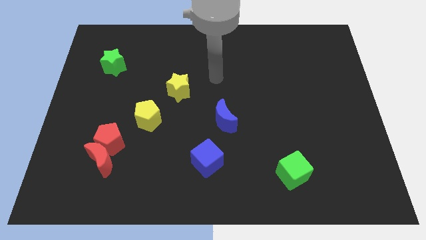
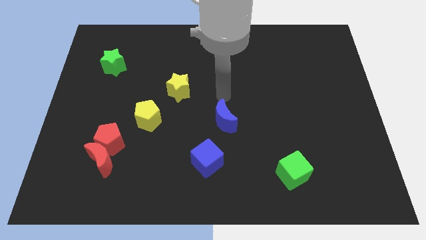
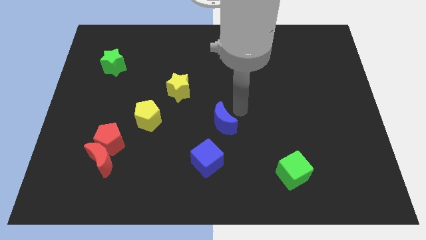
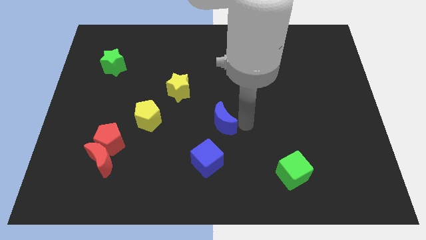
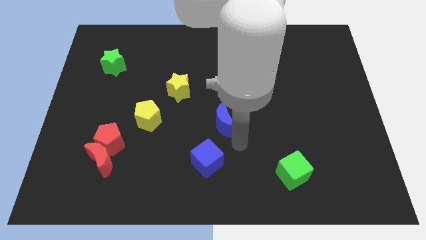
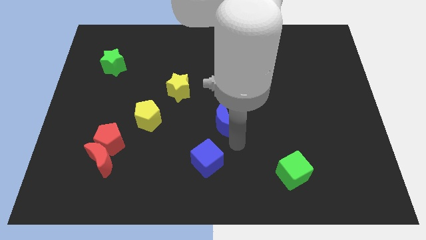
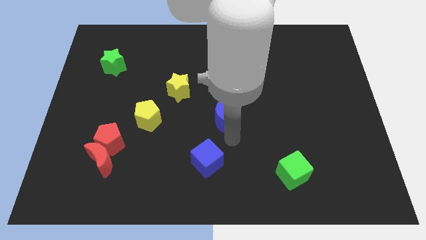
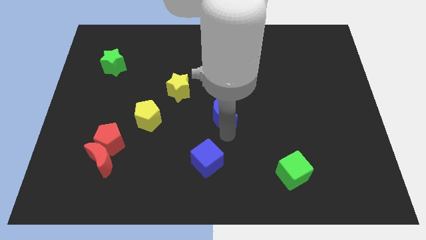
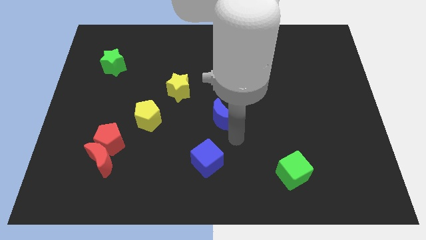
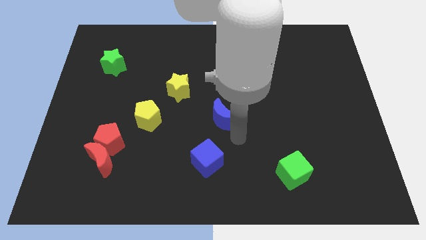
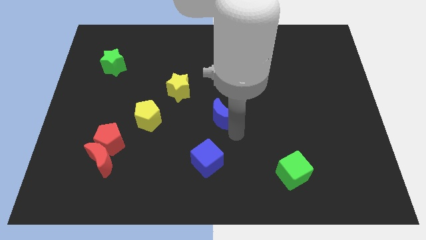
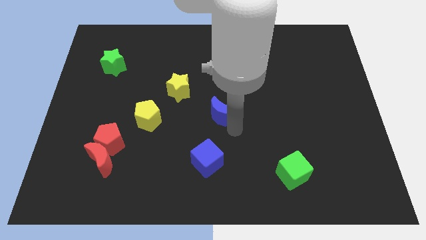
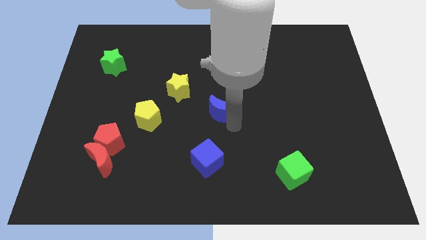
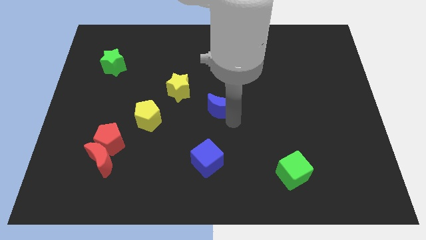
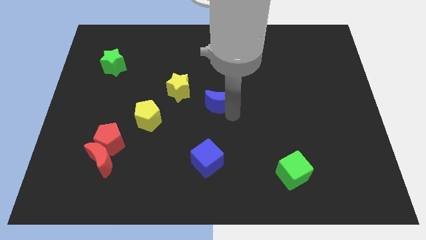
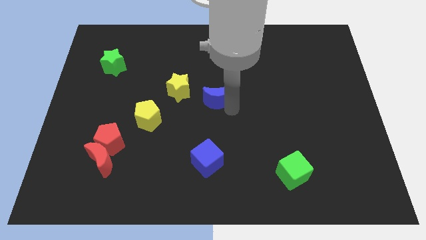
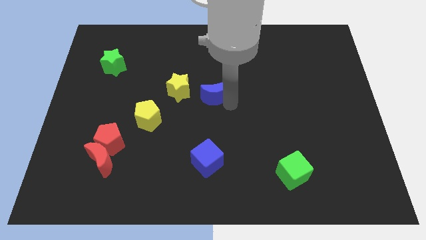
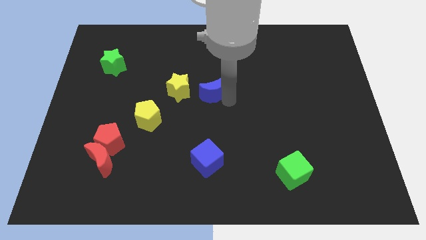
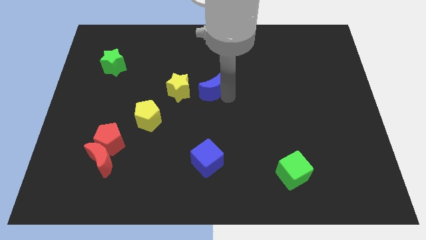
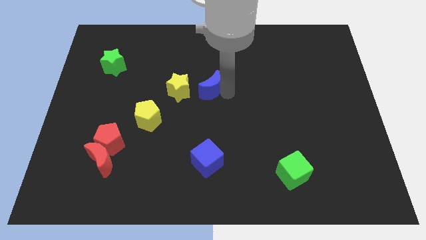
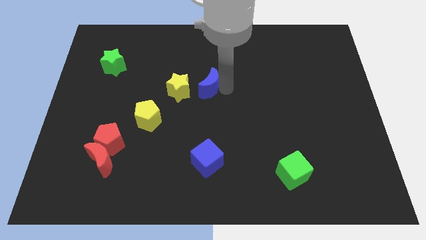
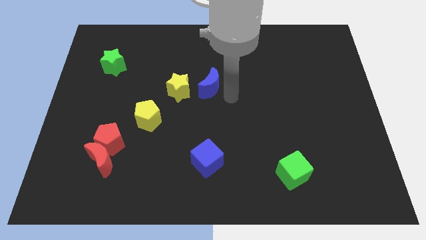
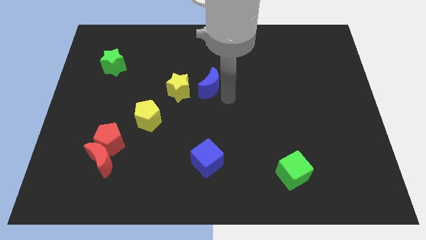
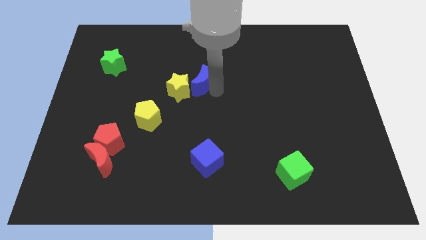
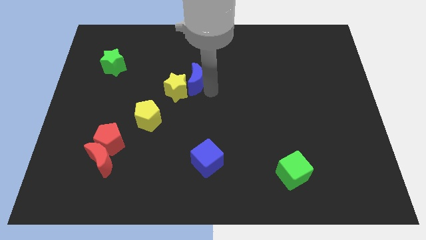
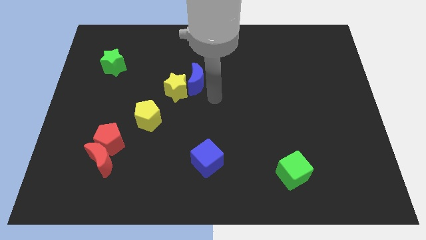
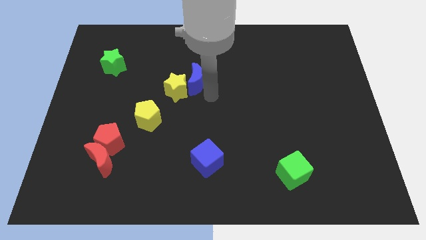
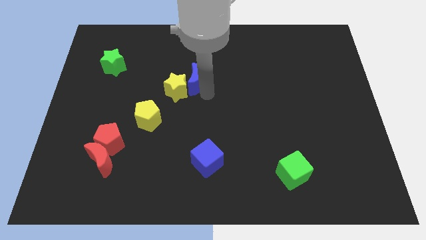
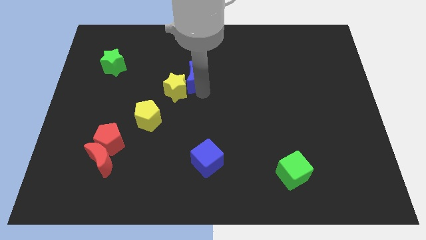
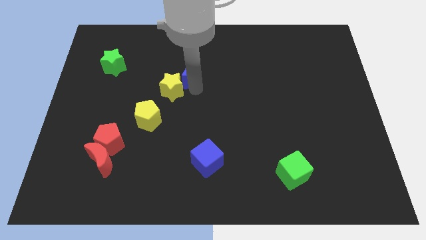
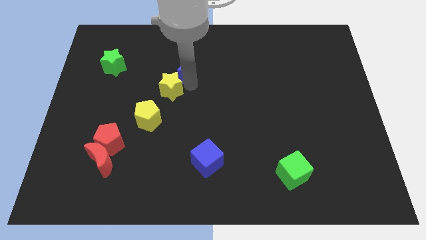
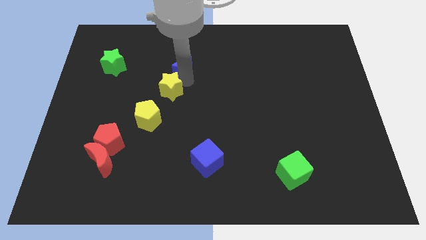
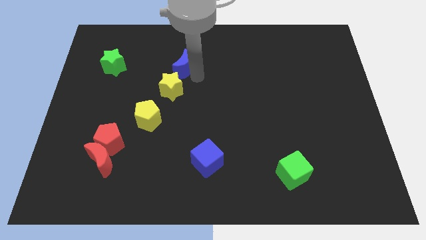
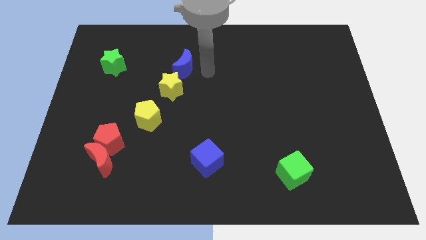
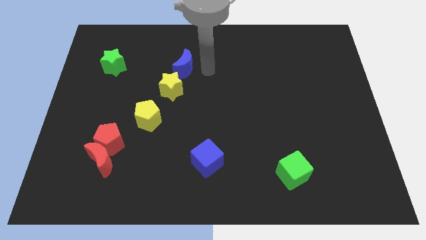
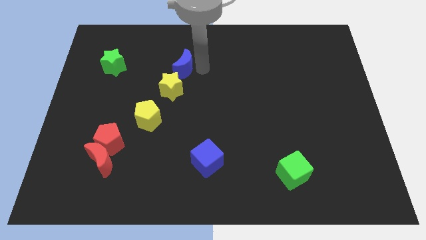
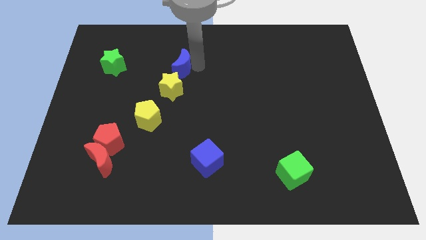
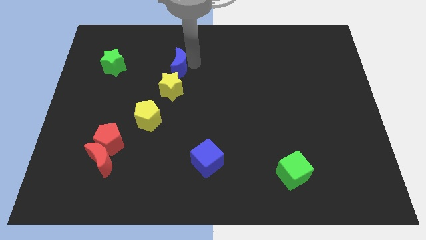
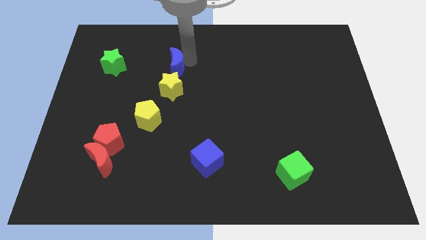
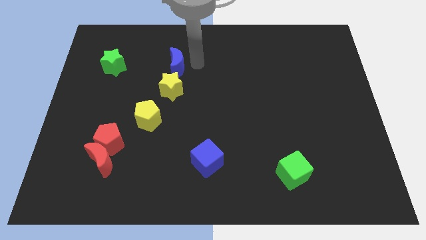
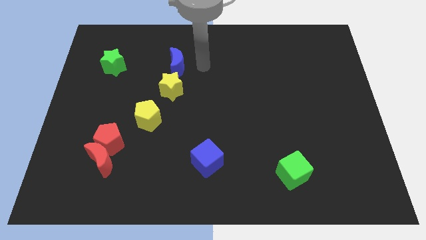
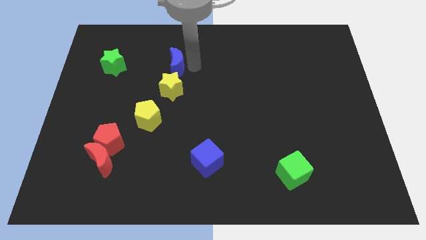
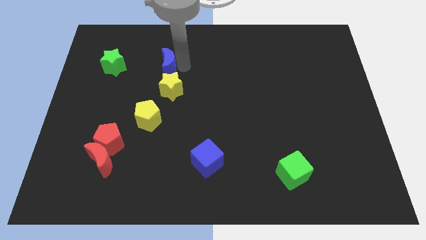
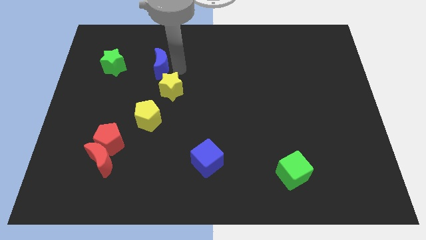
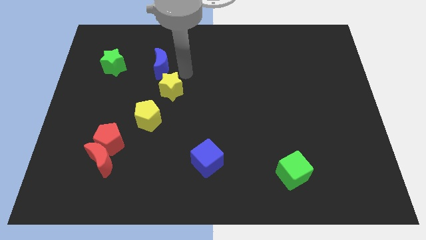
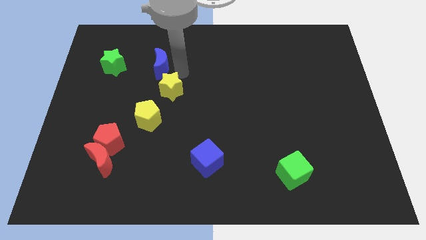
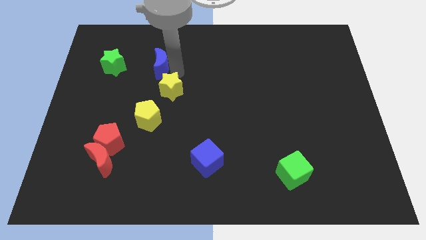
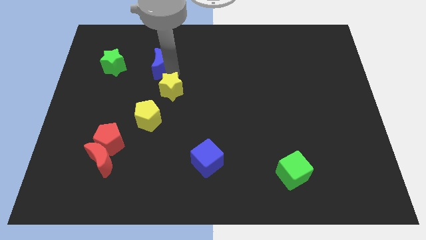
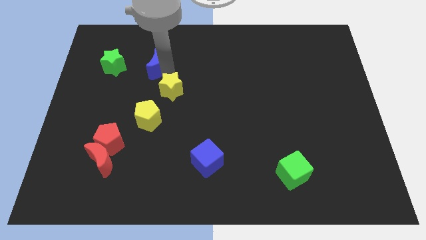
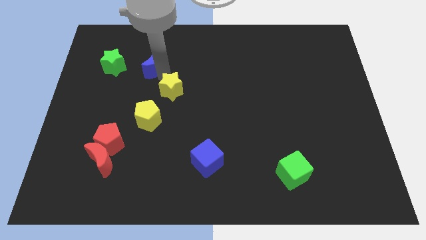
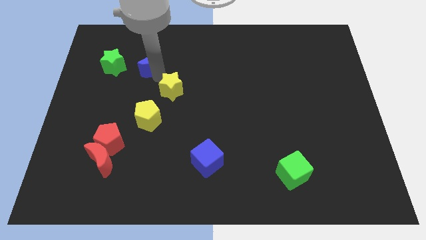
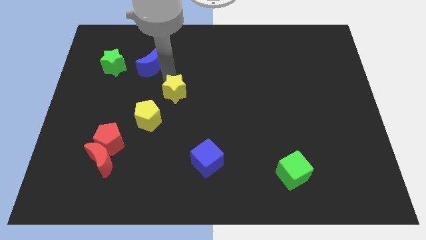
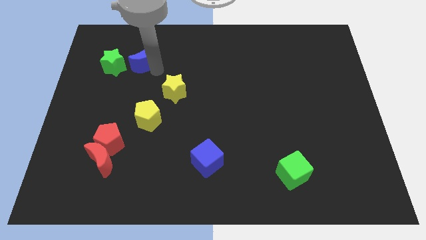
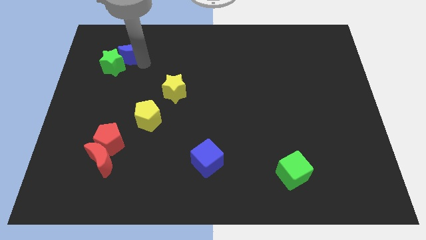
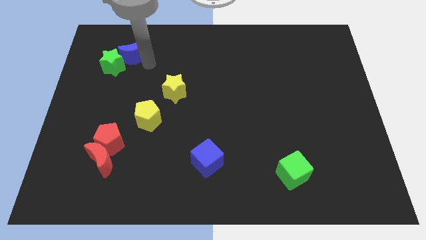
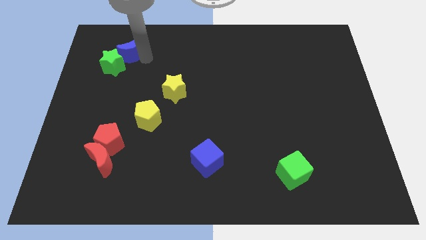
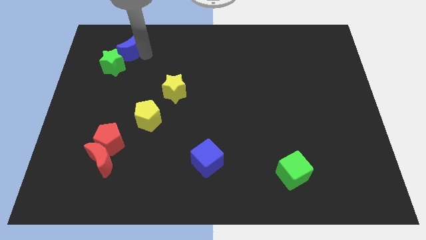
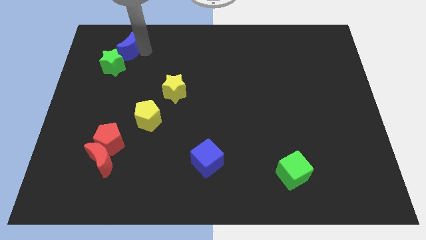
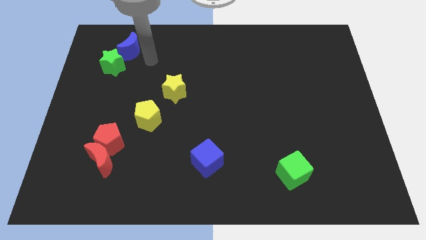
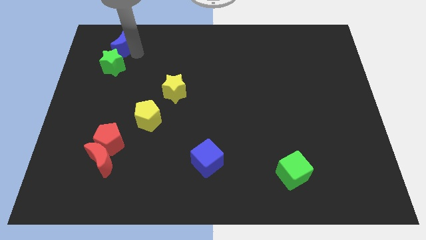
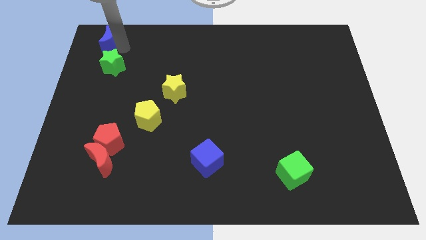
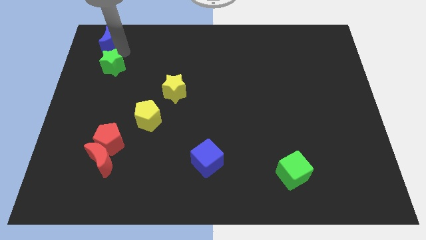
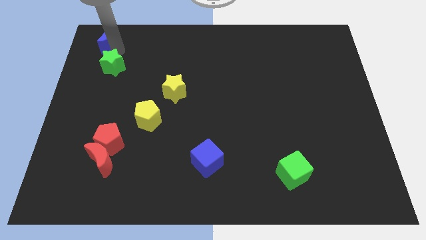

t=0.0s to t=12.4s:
push the blue moon to the top left corner
